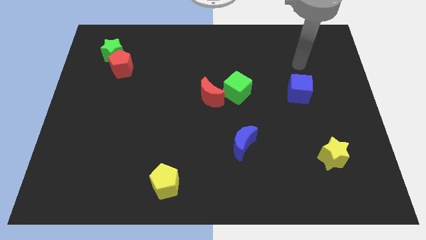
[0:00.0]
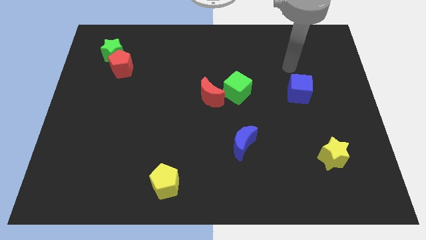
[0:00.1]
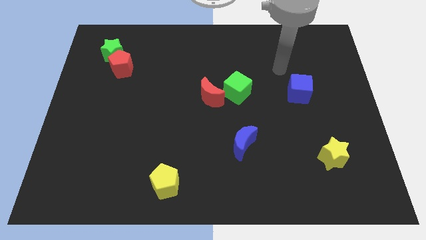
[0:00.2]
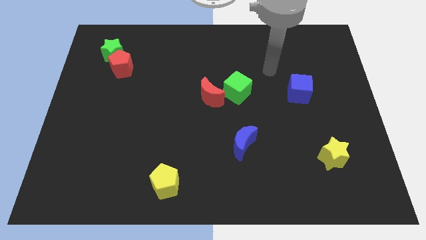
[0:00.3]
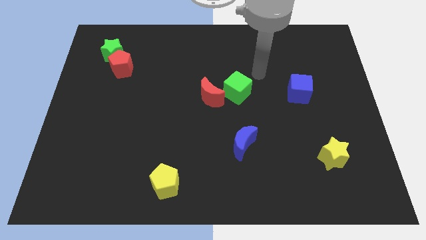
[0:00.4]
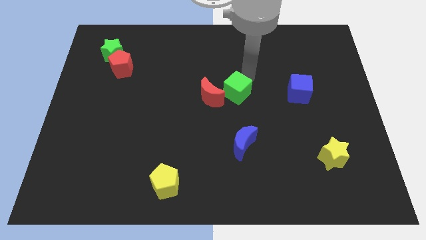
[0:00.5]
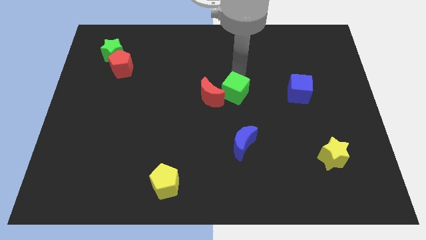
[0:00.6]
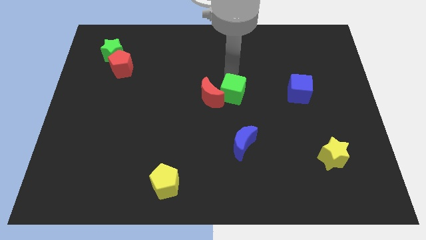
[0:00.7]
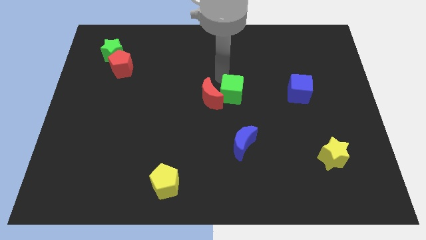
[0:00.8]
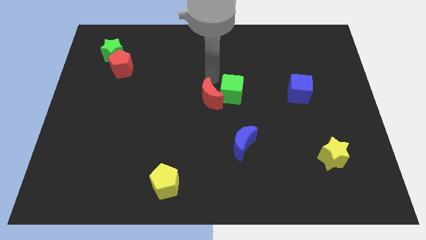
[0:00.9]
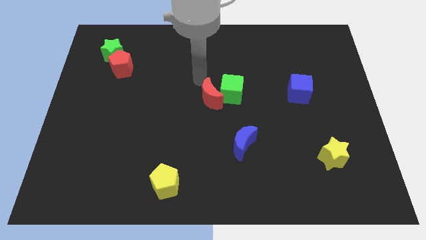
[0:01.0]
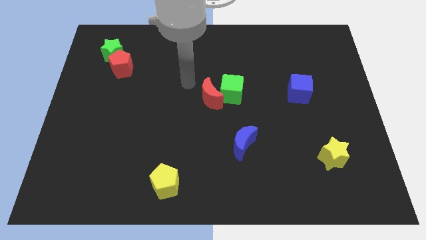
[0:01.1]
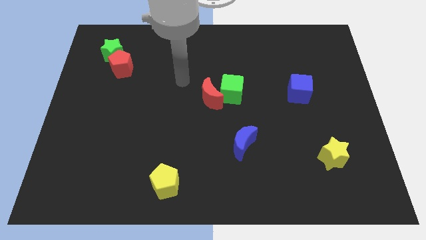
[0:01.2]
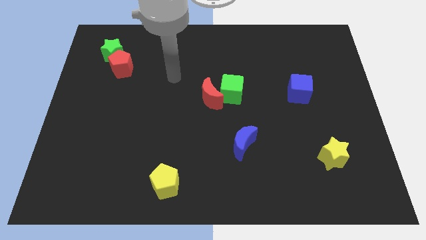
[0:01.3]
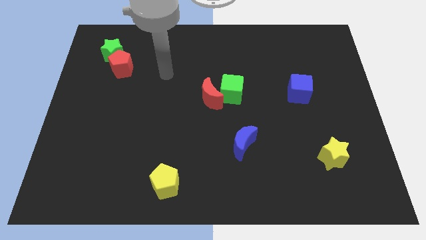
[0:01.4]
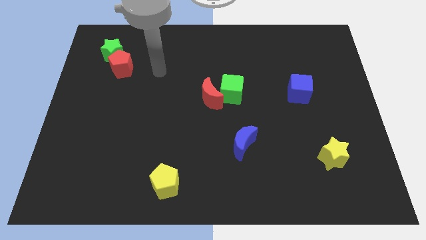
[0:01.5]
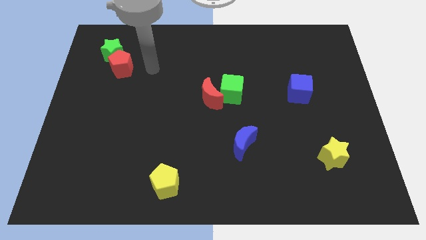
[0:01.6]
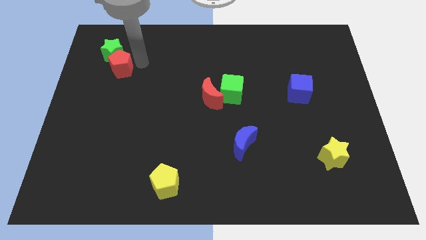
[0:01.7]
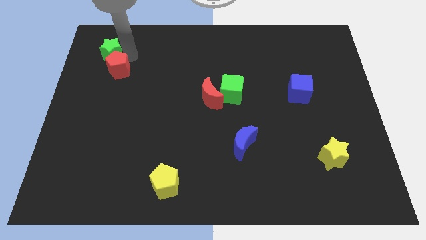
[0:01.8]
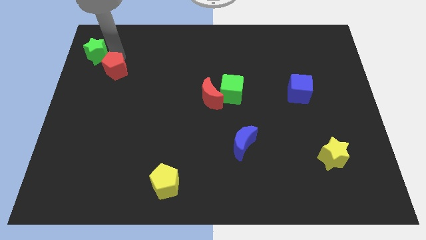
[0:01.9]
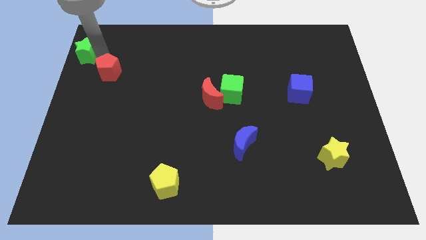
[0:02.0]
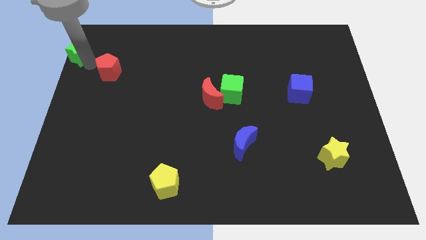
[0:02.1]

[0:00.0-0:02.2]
separate the red pentagon from the green star

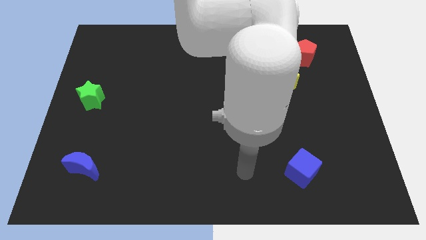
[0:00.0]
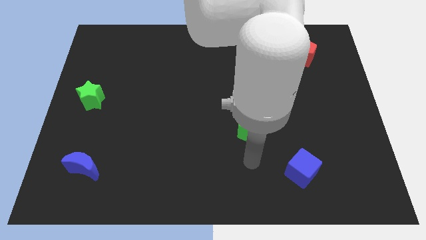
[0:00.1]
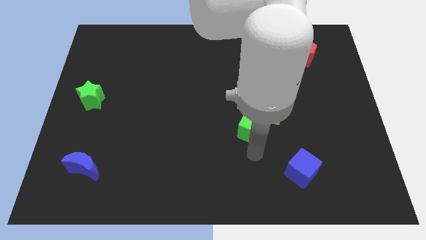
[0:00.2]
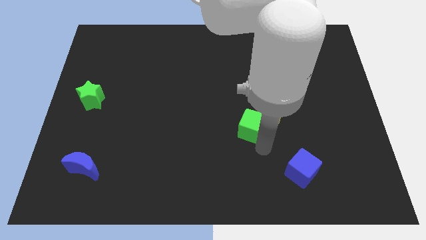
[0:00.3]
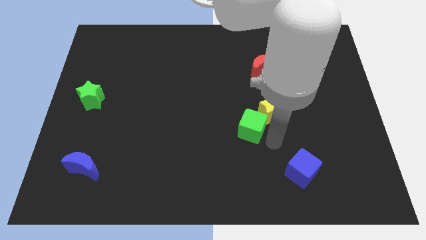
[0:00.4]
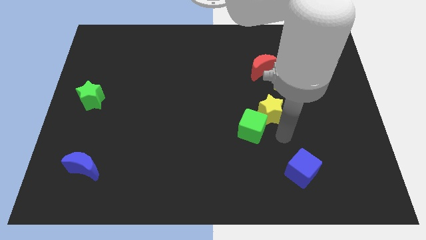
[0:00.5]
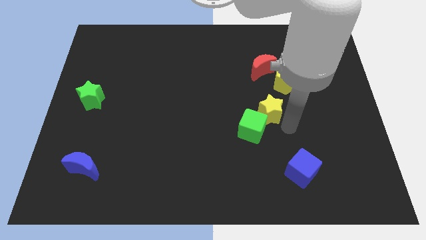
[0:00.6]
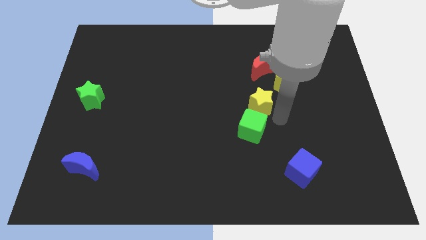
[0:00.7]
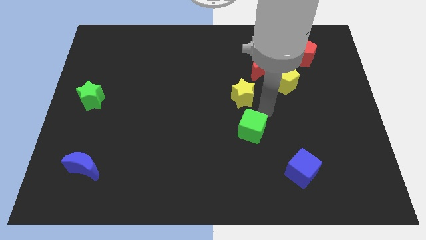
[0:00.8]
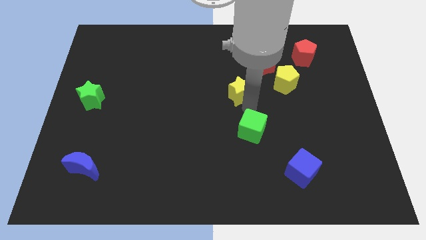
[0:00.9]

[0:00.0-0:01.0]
pull the green cube apart from the yellow star

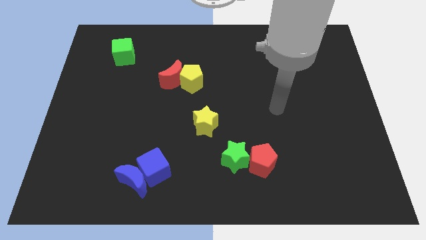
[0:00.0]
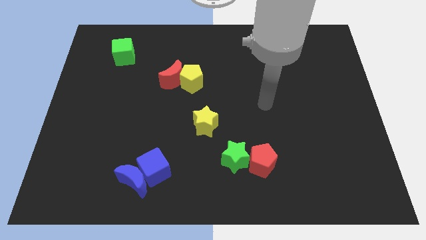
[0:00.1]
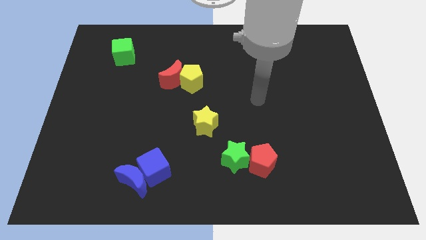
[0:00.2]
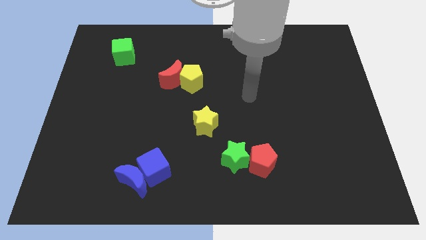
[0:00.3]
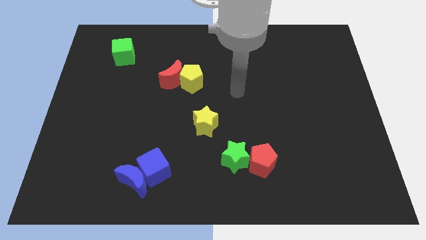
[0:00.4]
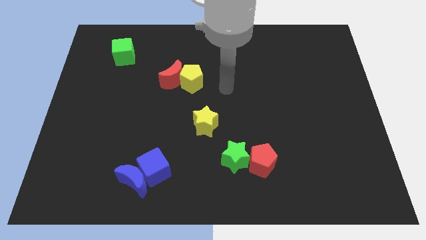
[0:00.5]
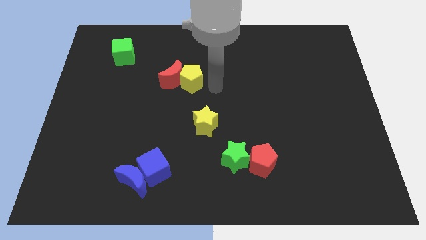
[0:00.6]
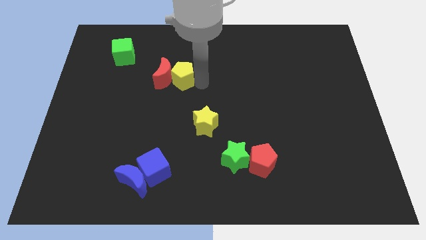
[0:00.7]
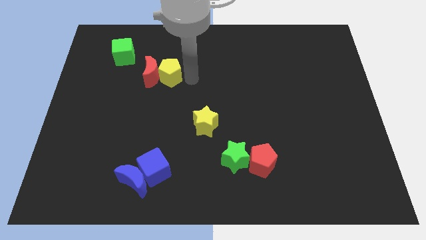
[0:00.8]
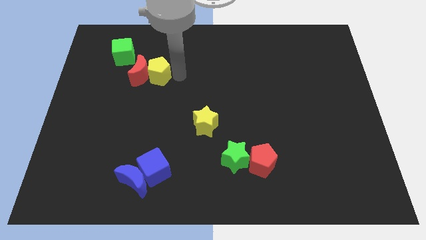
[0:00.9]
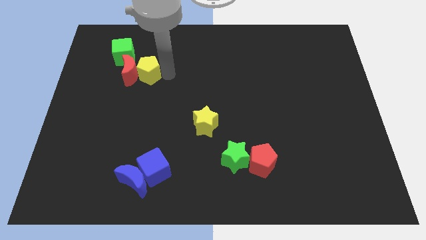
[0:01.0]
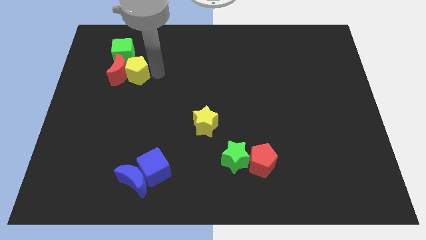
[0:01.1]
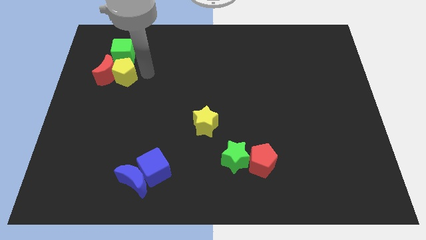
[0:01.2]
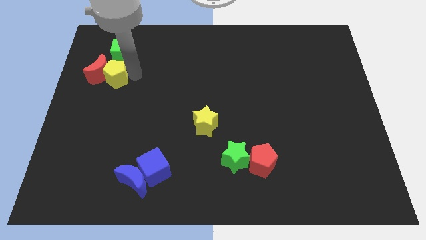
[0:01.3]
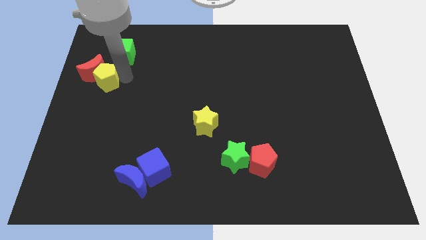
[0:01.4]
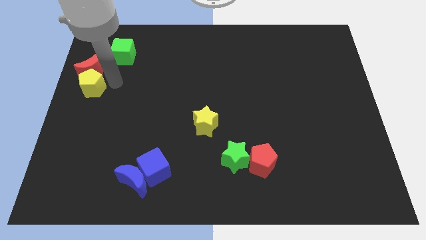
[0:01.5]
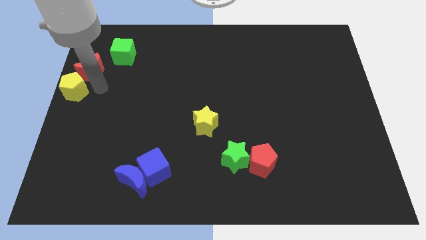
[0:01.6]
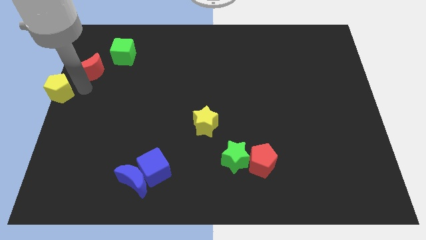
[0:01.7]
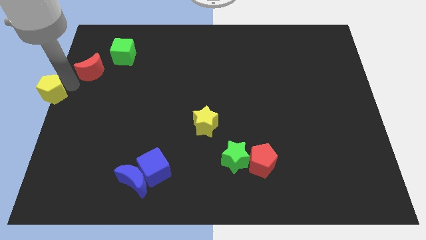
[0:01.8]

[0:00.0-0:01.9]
separate the red moon from the yellow pentagon

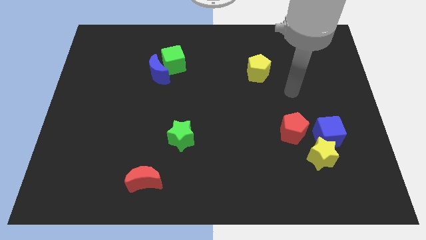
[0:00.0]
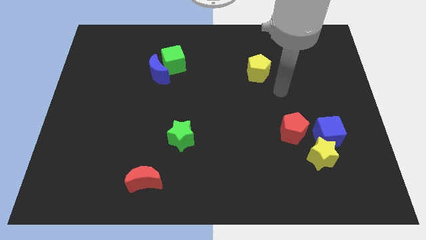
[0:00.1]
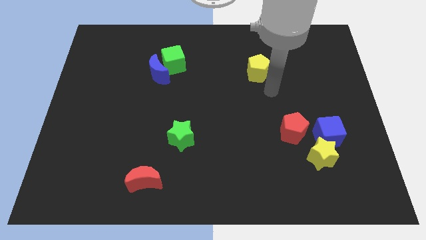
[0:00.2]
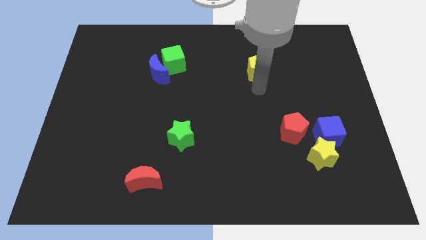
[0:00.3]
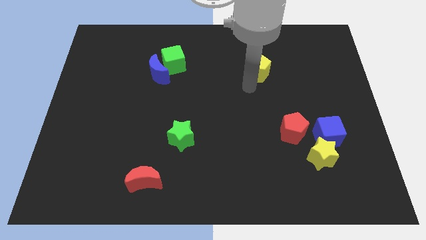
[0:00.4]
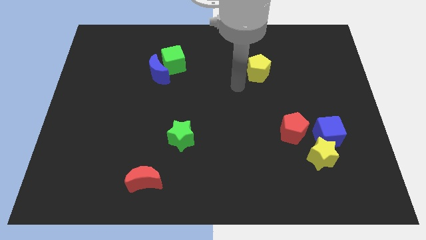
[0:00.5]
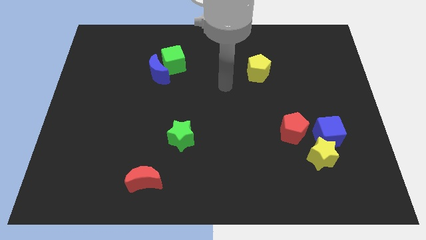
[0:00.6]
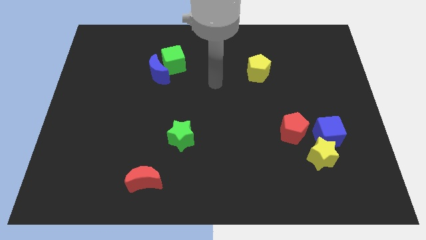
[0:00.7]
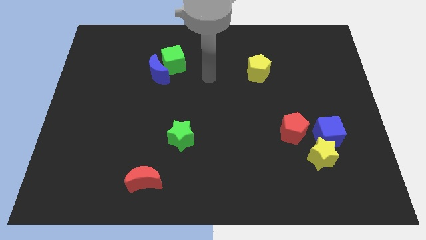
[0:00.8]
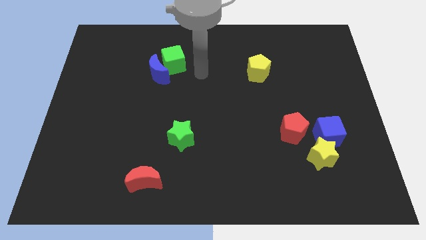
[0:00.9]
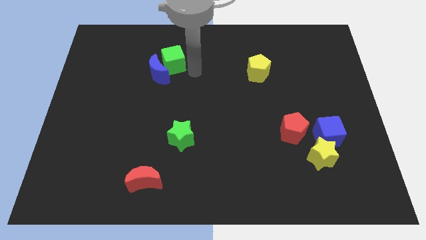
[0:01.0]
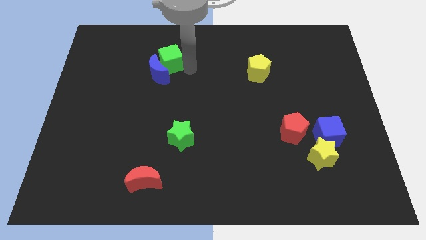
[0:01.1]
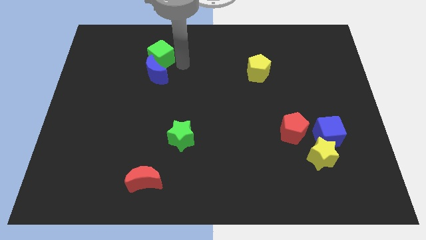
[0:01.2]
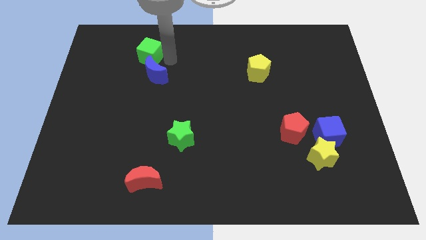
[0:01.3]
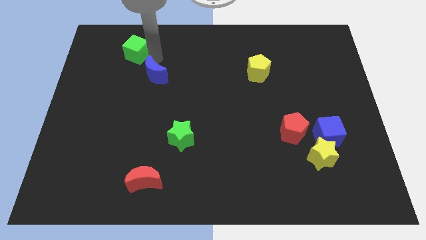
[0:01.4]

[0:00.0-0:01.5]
separate the blue moon from the green cube

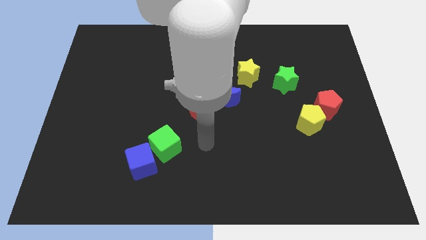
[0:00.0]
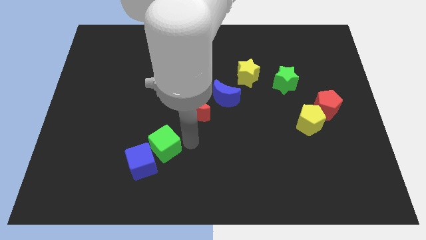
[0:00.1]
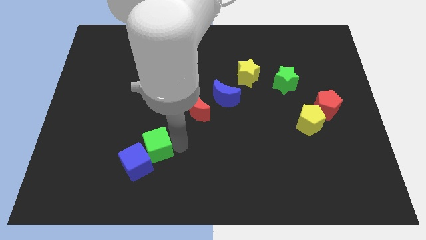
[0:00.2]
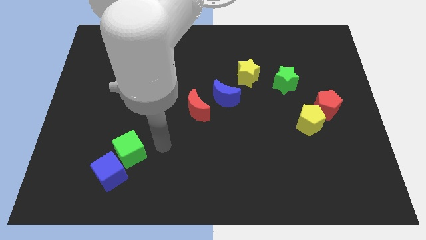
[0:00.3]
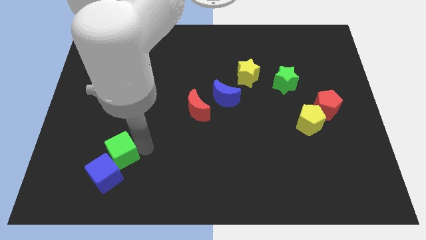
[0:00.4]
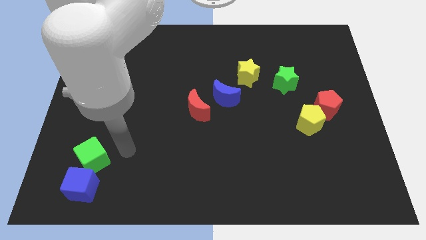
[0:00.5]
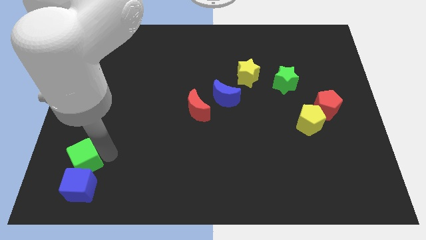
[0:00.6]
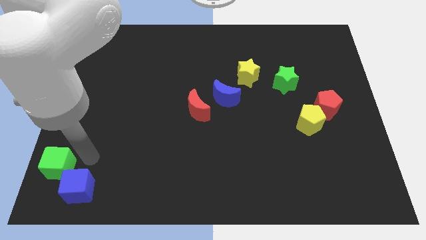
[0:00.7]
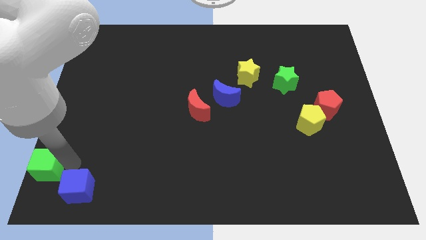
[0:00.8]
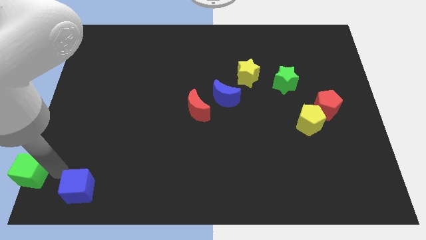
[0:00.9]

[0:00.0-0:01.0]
separate the blue cube from the green cube

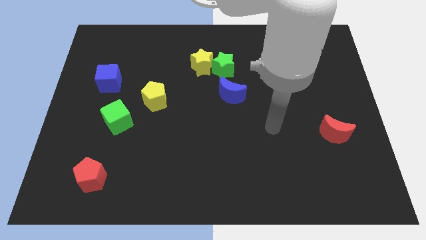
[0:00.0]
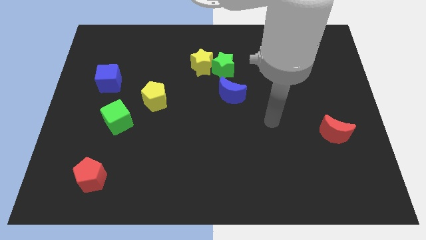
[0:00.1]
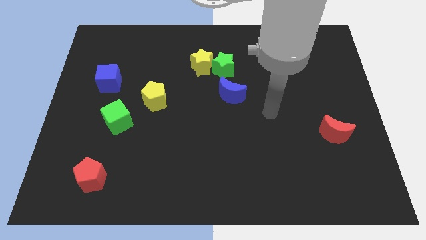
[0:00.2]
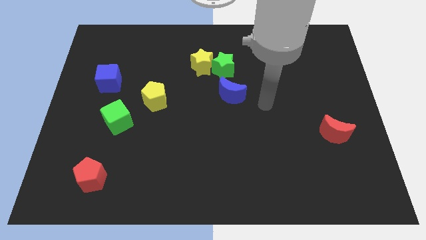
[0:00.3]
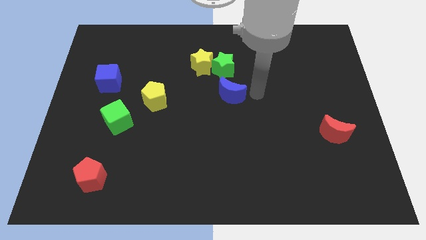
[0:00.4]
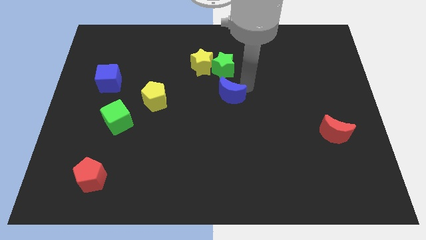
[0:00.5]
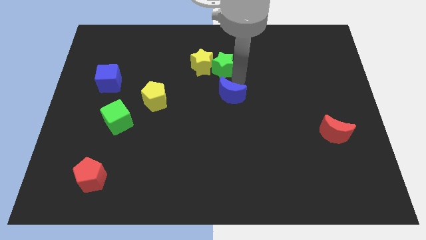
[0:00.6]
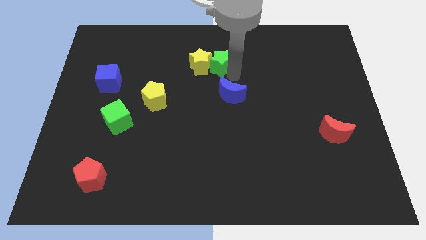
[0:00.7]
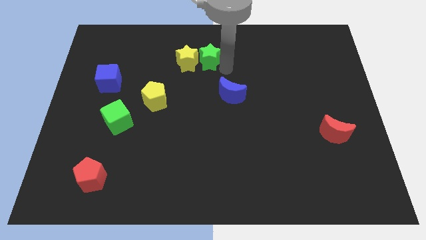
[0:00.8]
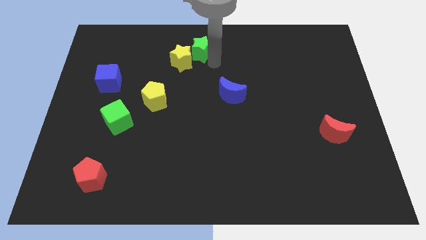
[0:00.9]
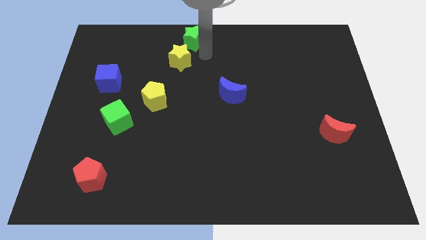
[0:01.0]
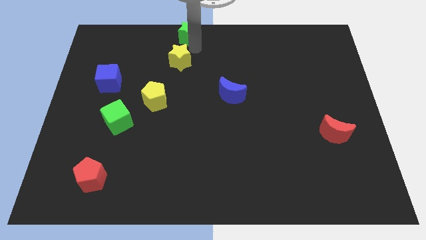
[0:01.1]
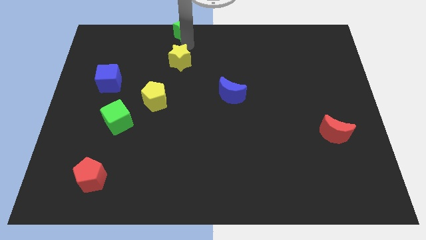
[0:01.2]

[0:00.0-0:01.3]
move the yellow star away from the green star

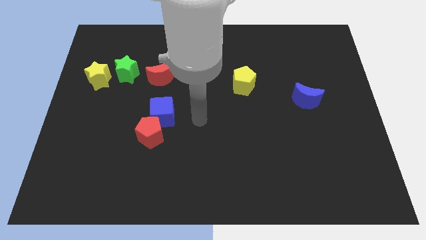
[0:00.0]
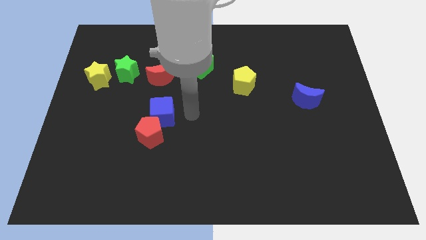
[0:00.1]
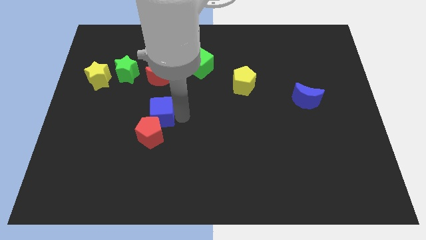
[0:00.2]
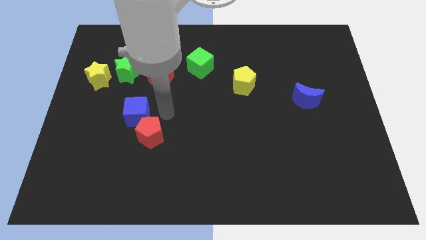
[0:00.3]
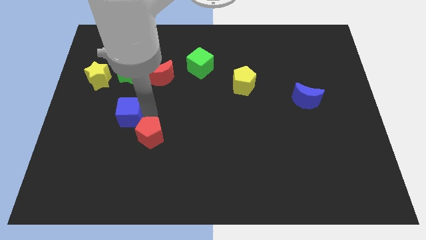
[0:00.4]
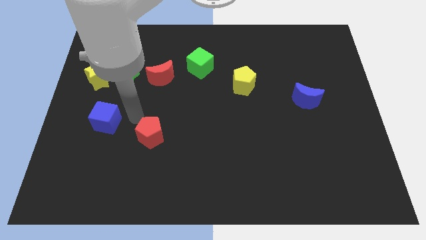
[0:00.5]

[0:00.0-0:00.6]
pull the red pentagon apart from the blue cube
